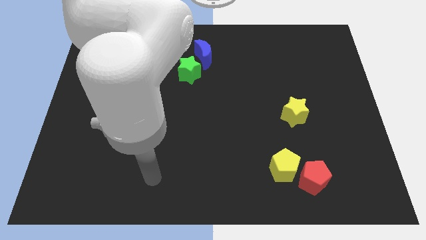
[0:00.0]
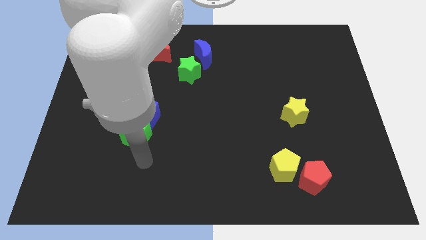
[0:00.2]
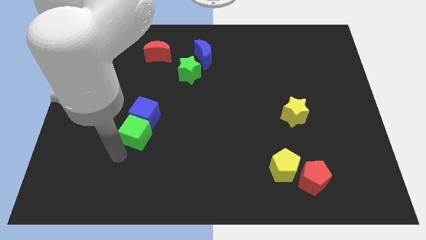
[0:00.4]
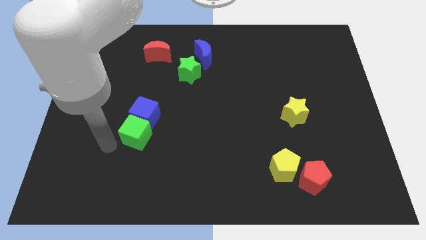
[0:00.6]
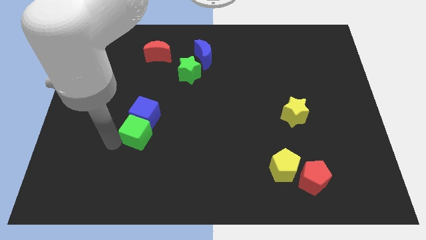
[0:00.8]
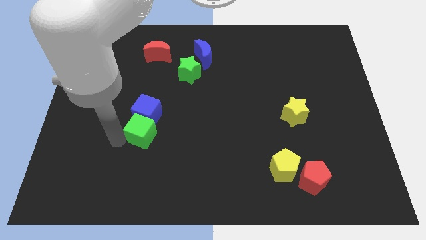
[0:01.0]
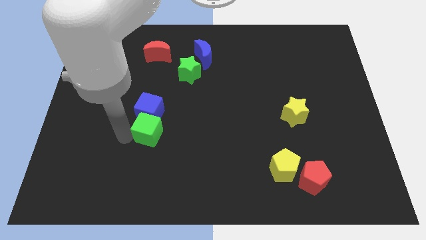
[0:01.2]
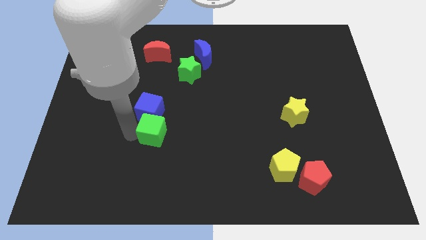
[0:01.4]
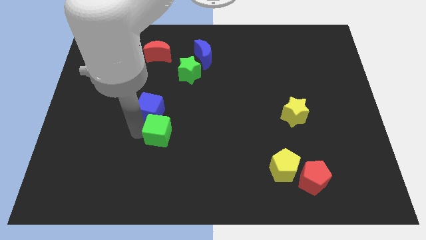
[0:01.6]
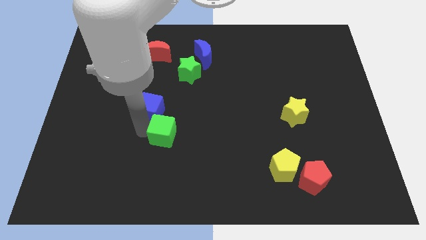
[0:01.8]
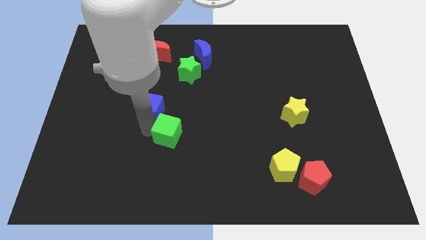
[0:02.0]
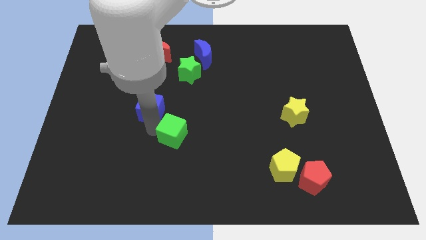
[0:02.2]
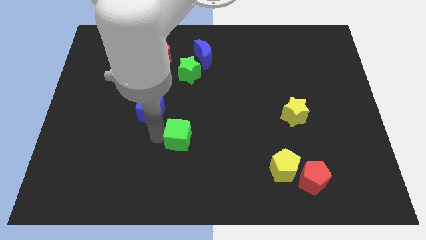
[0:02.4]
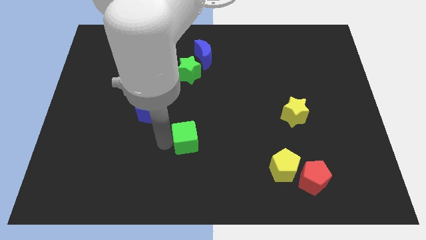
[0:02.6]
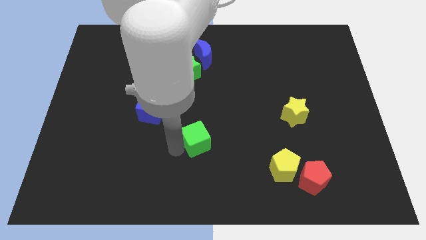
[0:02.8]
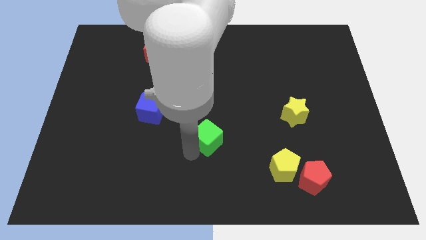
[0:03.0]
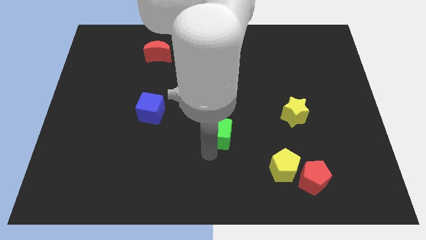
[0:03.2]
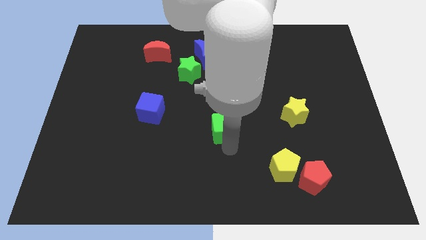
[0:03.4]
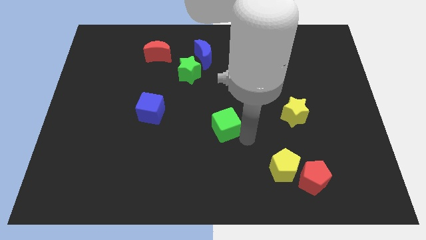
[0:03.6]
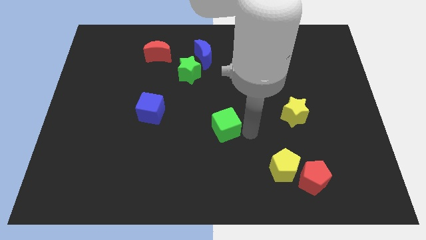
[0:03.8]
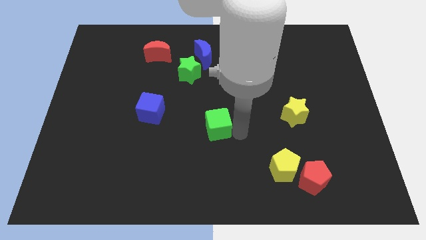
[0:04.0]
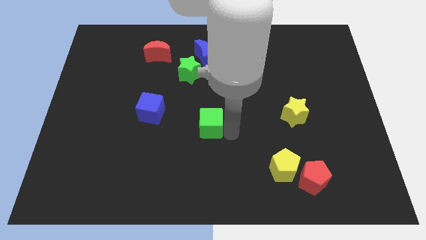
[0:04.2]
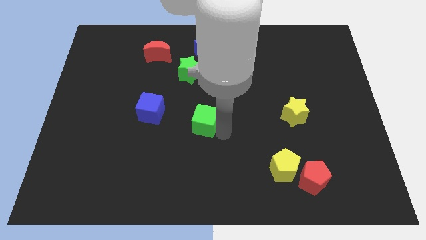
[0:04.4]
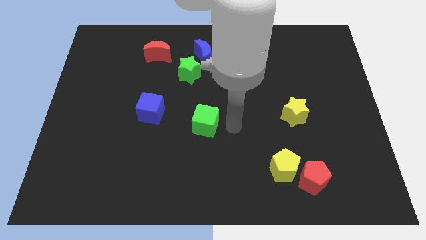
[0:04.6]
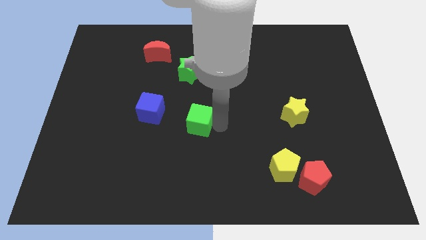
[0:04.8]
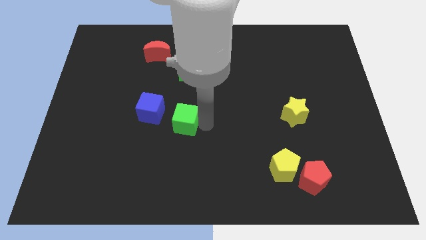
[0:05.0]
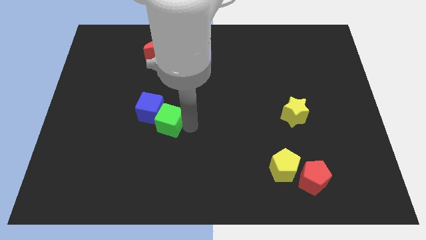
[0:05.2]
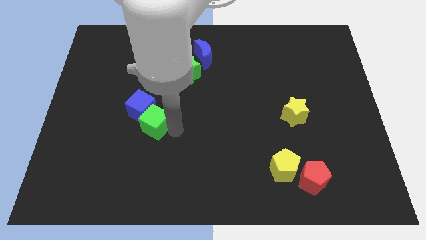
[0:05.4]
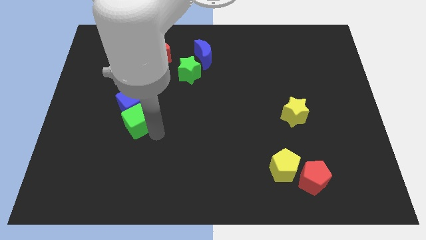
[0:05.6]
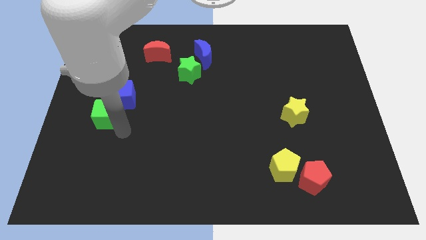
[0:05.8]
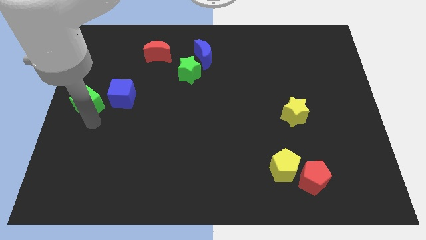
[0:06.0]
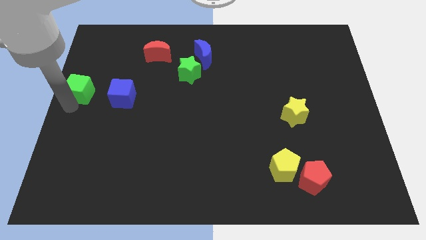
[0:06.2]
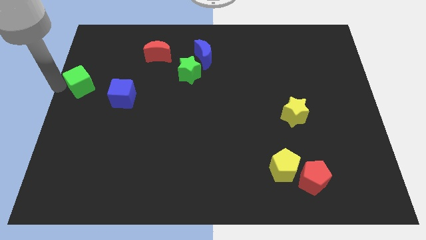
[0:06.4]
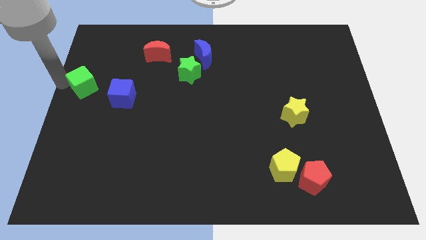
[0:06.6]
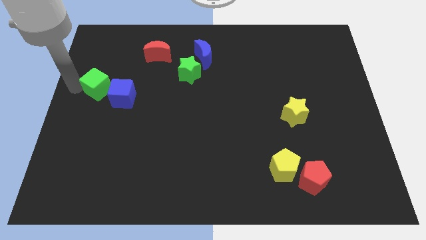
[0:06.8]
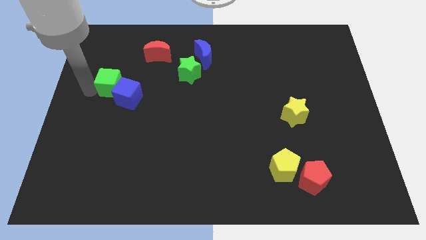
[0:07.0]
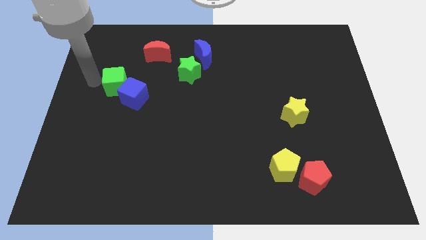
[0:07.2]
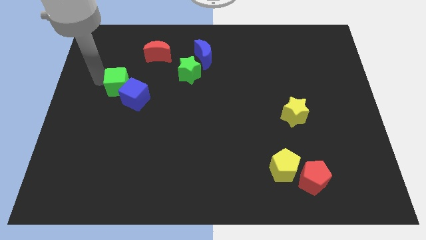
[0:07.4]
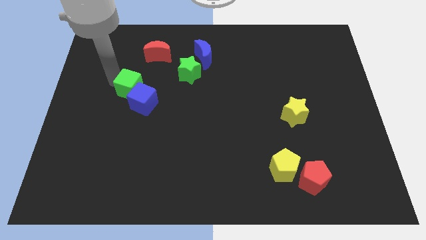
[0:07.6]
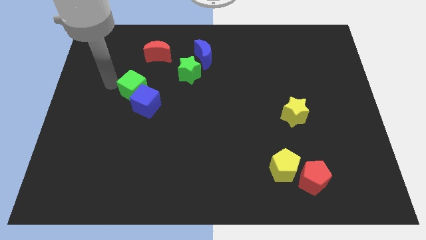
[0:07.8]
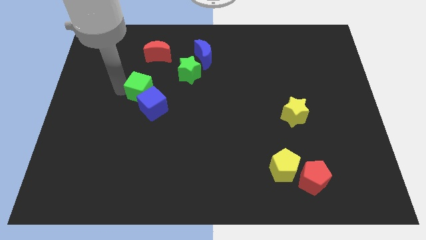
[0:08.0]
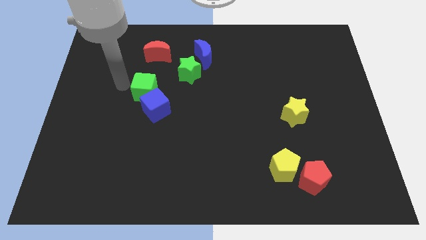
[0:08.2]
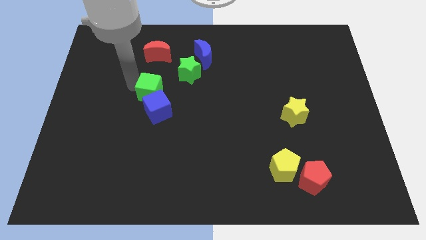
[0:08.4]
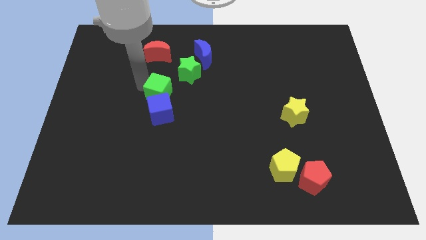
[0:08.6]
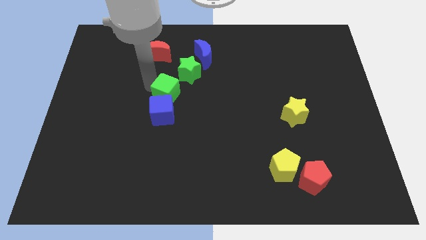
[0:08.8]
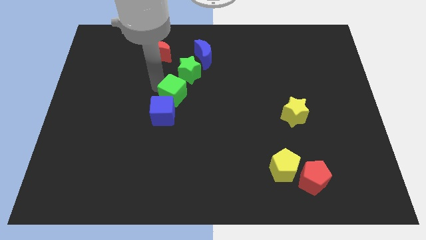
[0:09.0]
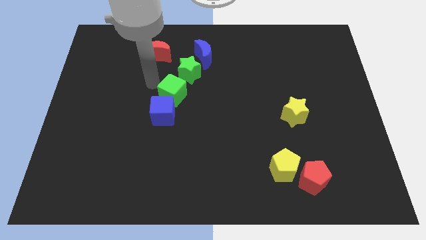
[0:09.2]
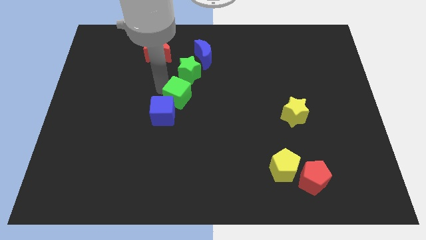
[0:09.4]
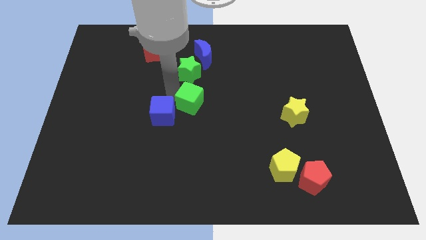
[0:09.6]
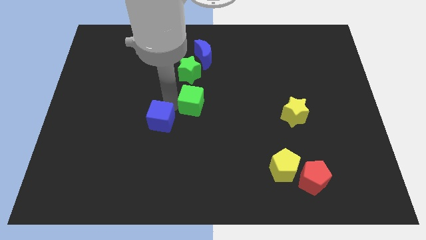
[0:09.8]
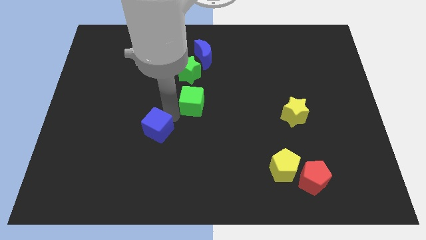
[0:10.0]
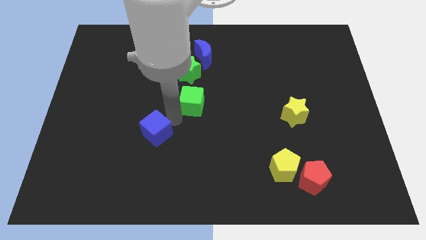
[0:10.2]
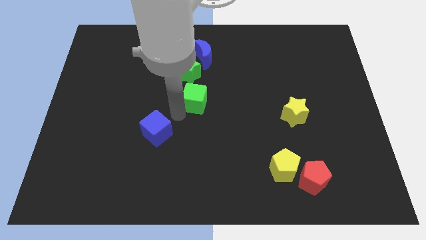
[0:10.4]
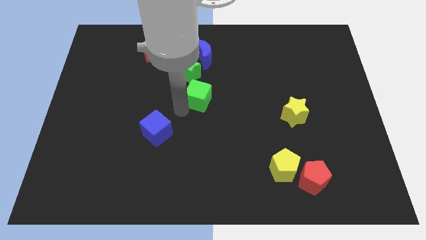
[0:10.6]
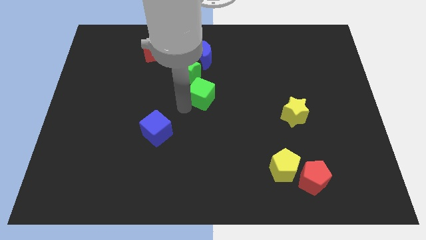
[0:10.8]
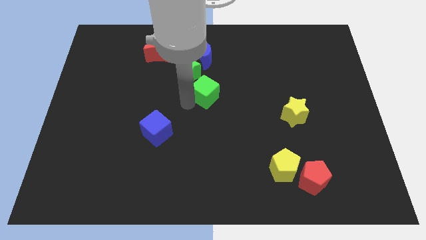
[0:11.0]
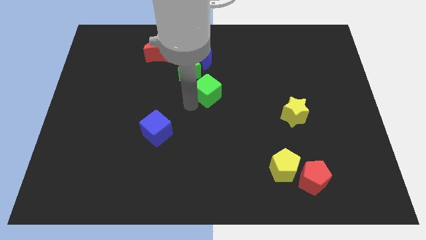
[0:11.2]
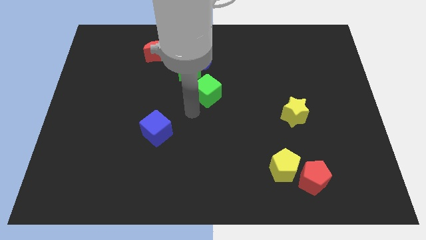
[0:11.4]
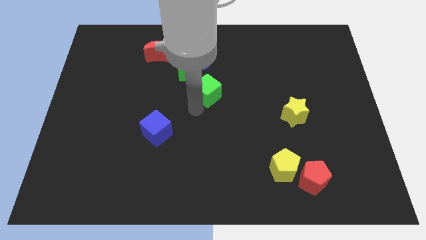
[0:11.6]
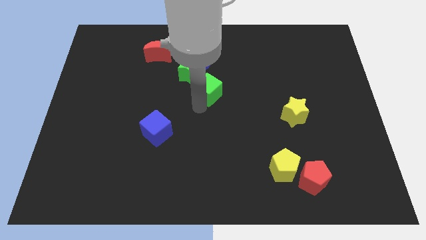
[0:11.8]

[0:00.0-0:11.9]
push the green cube diagonally upwards and to the right

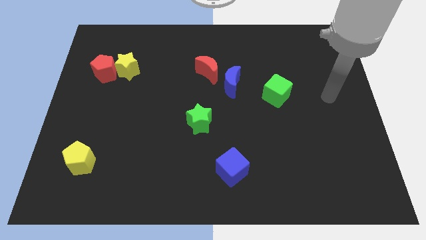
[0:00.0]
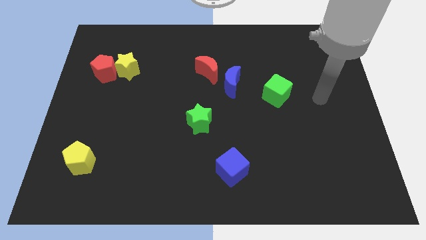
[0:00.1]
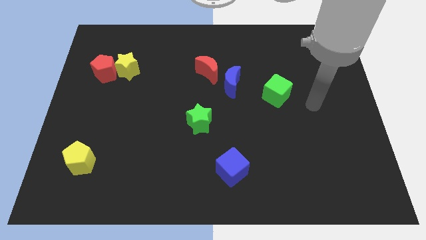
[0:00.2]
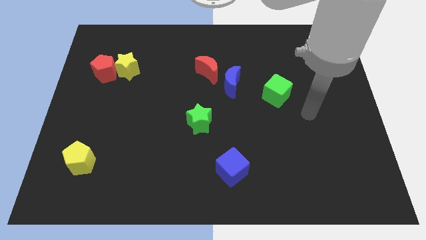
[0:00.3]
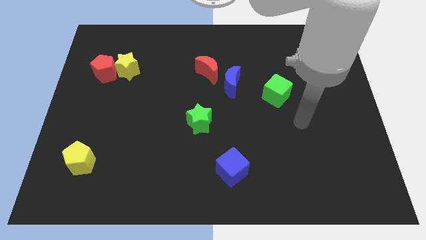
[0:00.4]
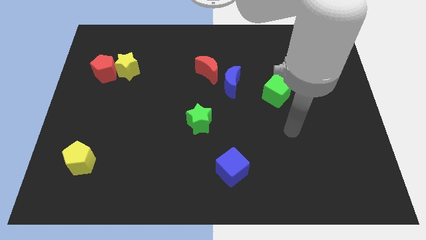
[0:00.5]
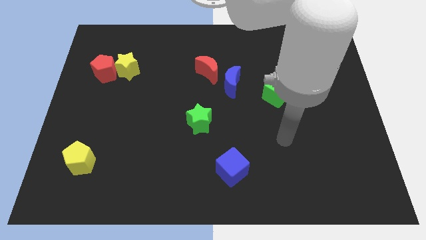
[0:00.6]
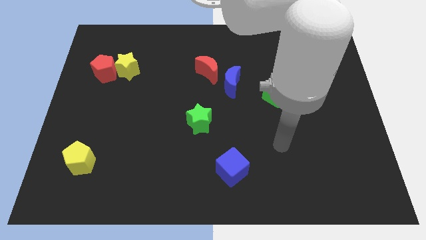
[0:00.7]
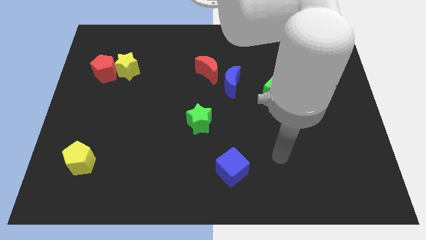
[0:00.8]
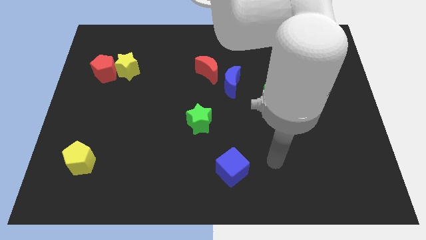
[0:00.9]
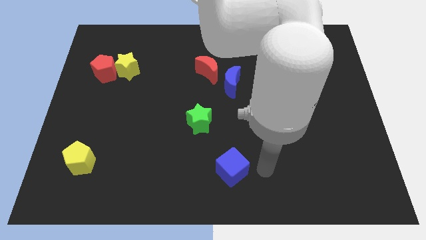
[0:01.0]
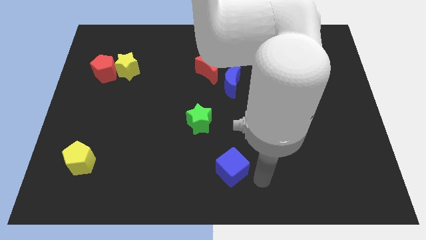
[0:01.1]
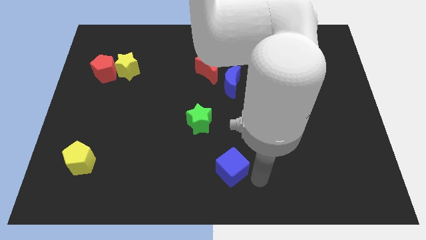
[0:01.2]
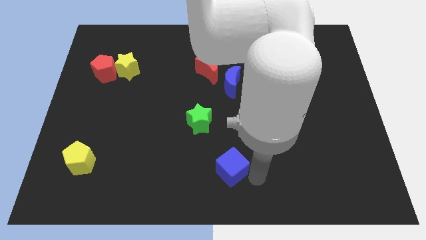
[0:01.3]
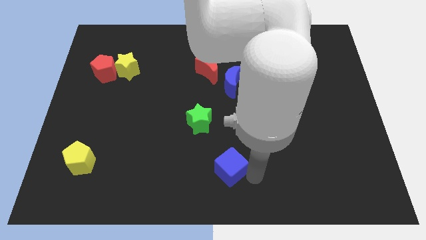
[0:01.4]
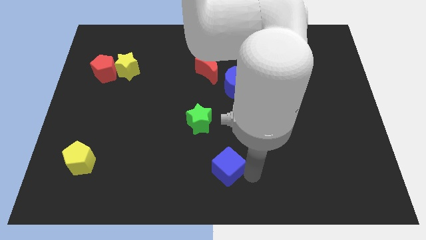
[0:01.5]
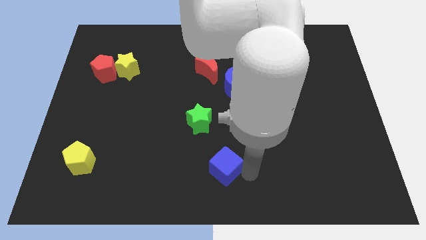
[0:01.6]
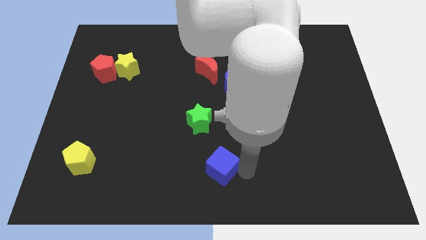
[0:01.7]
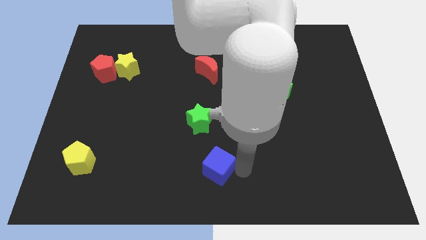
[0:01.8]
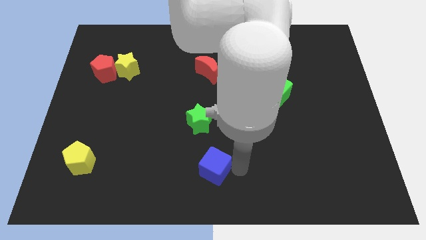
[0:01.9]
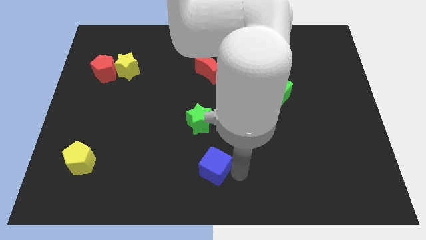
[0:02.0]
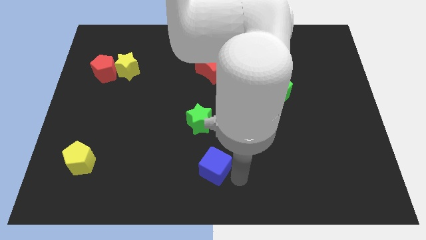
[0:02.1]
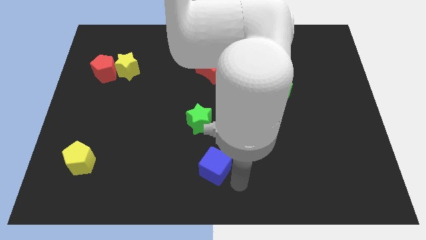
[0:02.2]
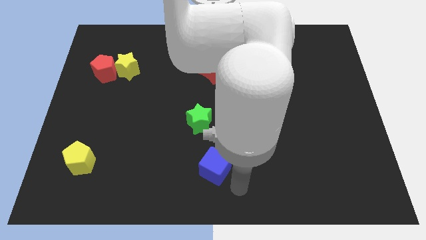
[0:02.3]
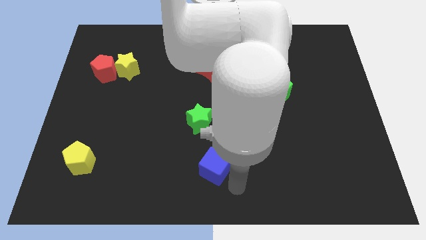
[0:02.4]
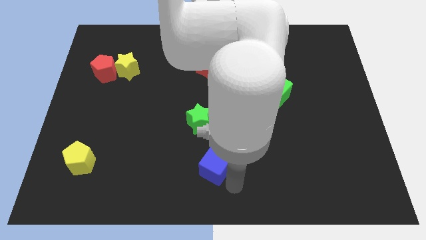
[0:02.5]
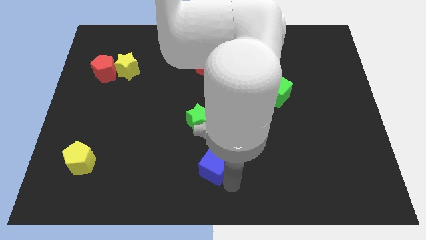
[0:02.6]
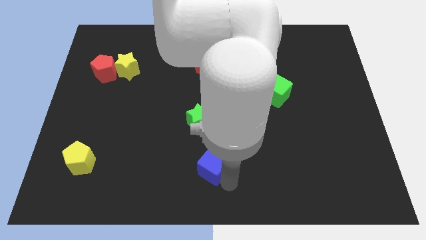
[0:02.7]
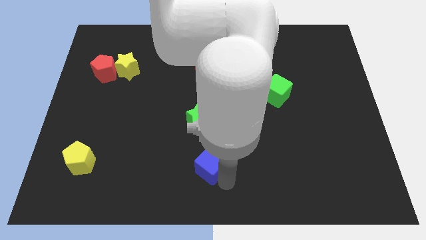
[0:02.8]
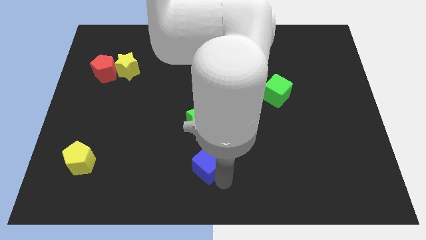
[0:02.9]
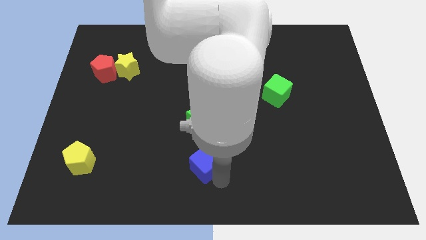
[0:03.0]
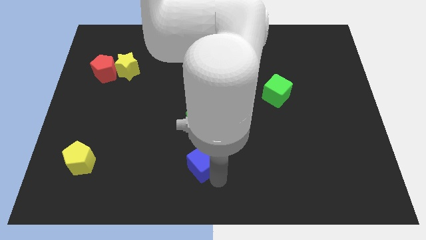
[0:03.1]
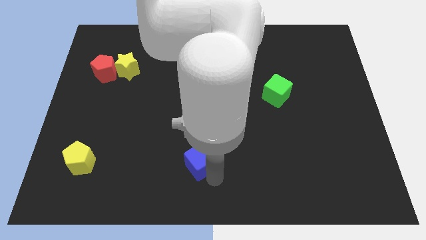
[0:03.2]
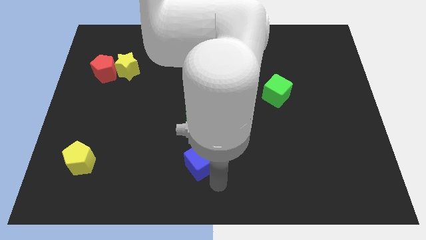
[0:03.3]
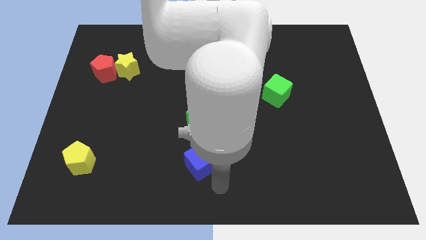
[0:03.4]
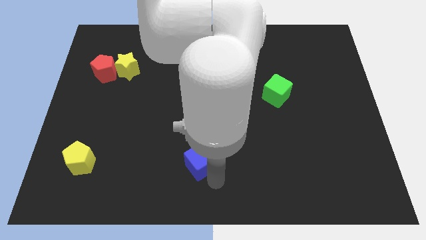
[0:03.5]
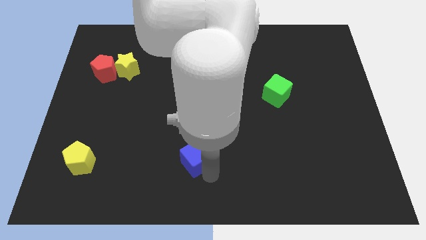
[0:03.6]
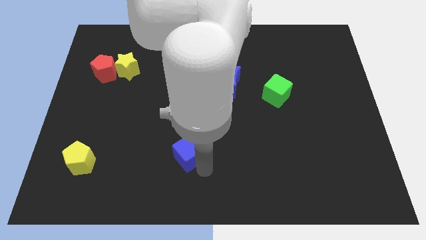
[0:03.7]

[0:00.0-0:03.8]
push the blue cube a bit up and to the left diagonally
